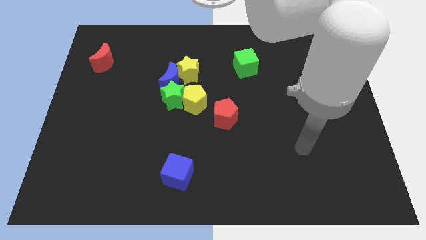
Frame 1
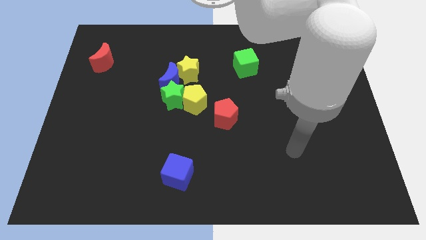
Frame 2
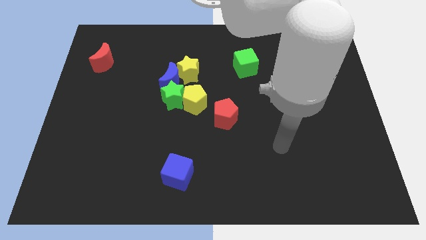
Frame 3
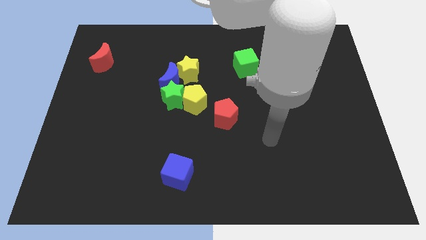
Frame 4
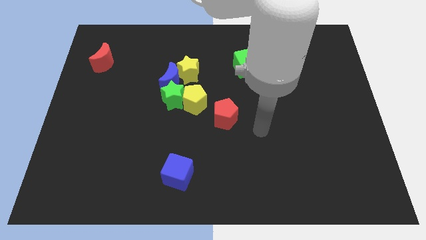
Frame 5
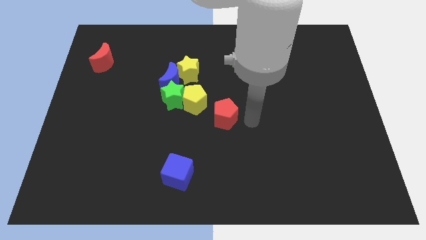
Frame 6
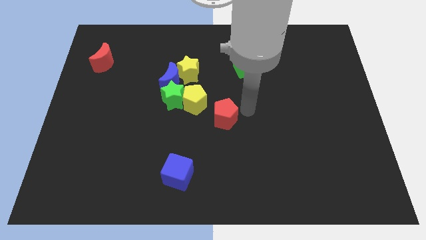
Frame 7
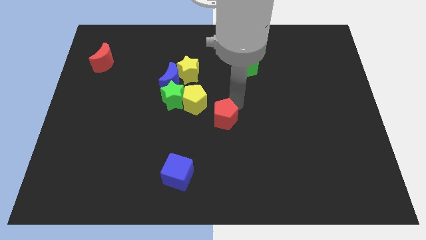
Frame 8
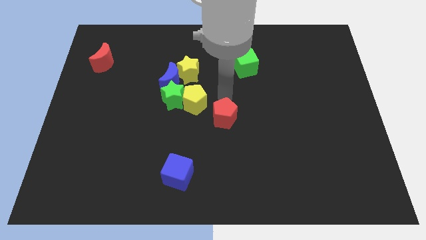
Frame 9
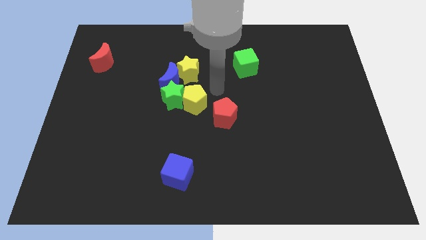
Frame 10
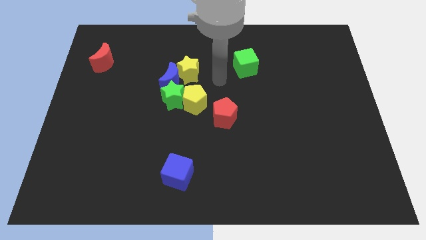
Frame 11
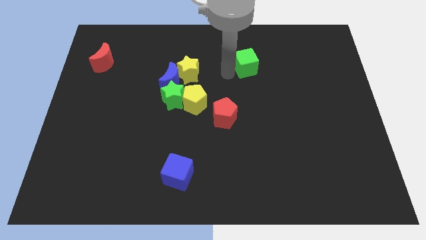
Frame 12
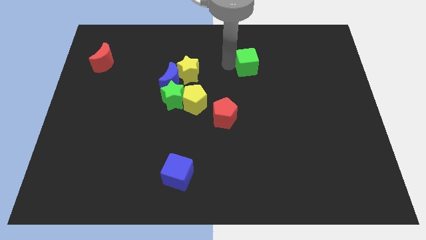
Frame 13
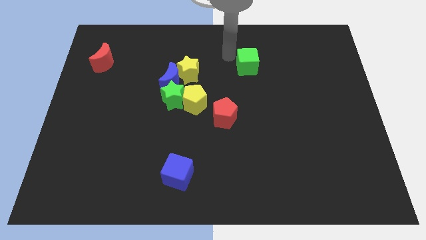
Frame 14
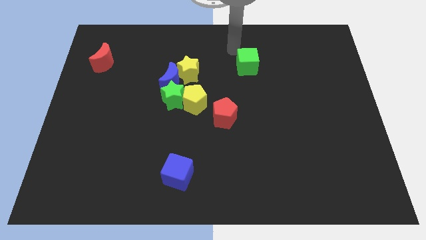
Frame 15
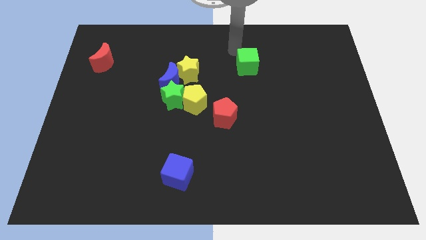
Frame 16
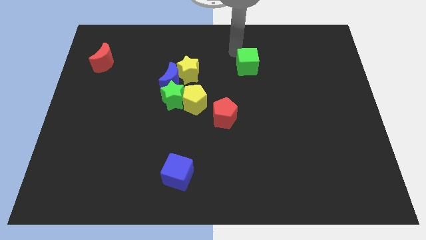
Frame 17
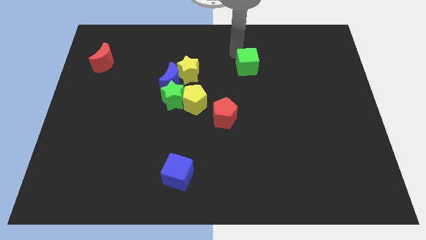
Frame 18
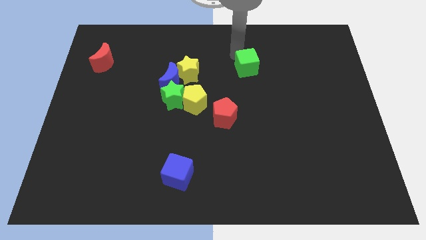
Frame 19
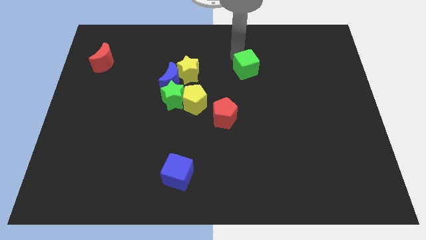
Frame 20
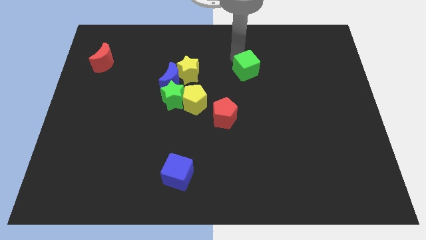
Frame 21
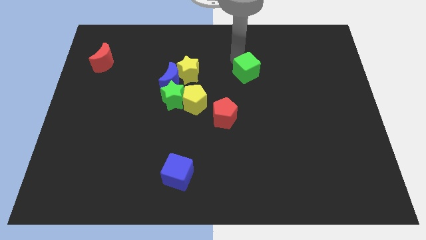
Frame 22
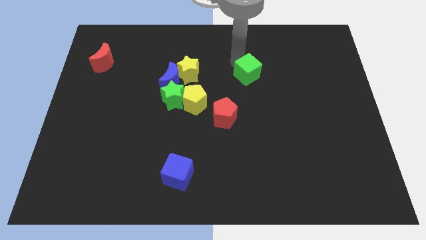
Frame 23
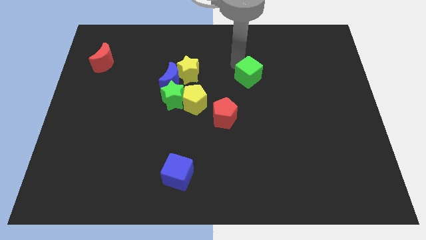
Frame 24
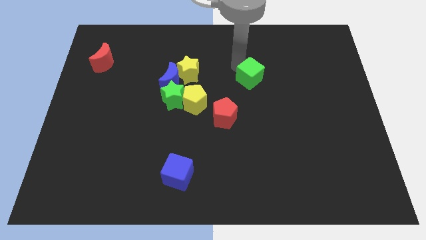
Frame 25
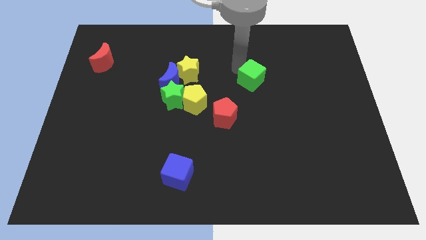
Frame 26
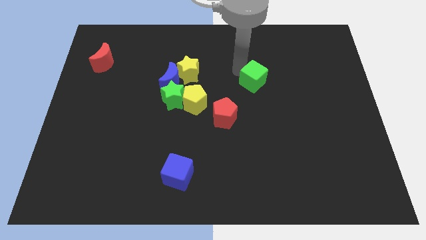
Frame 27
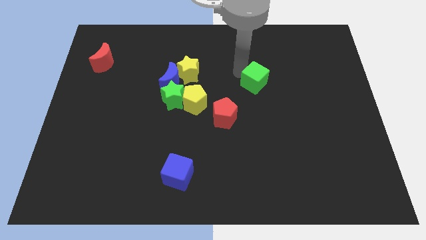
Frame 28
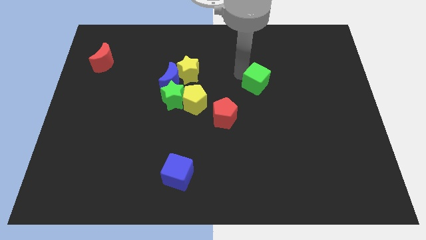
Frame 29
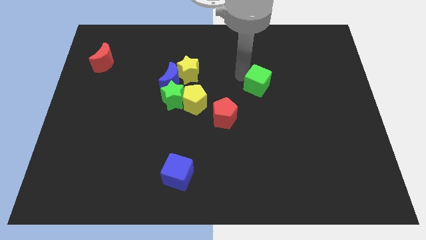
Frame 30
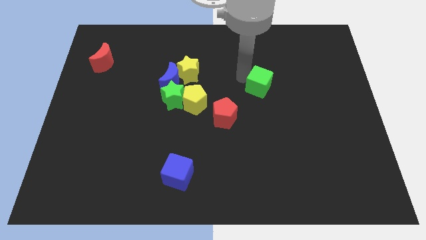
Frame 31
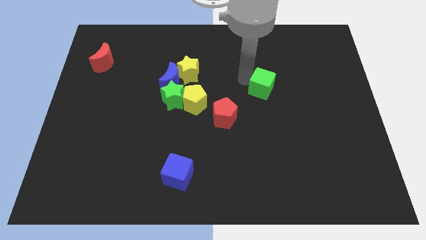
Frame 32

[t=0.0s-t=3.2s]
slide the green cube downwards and to the right diagonally slightly

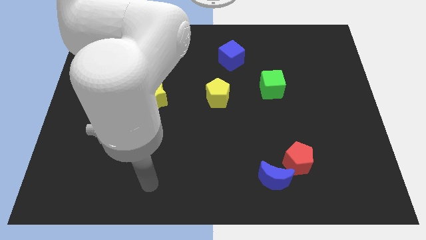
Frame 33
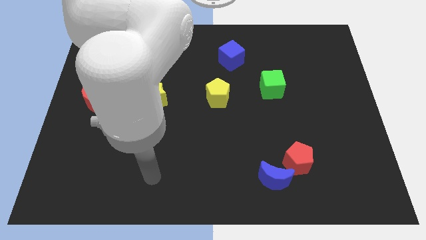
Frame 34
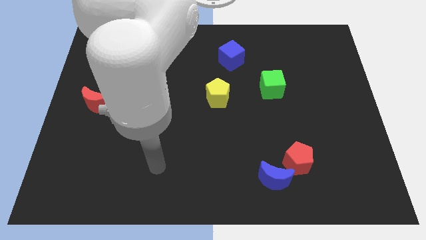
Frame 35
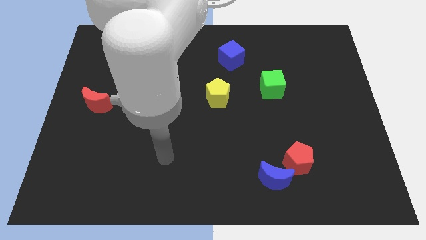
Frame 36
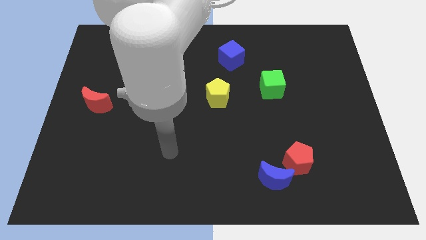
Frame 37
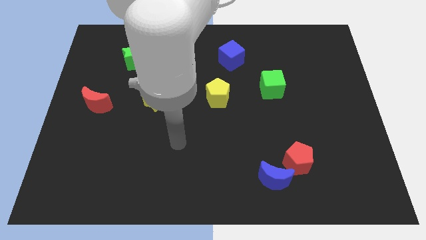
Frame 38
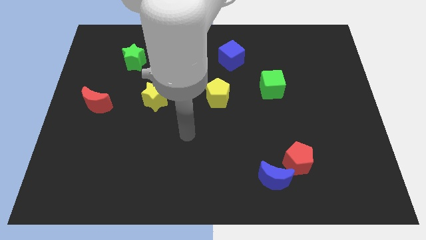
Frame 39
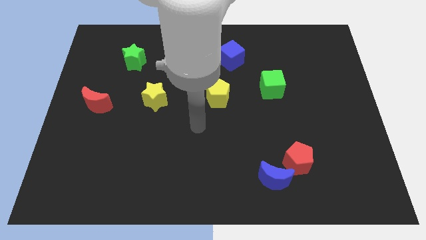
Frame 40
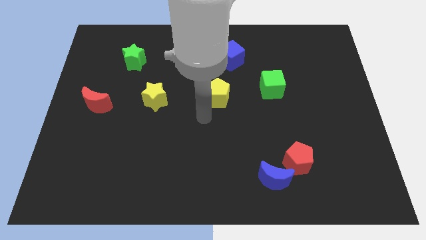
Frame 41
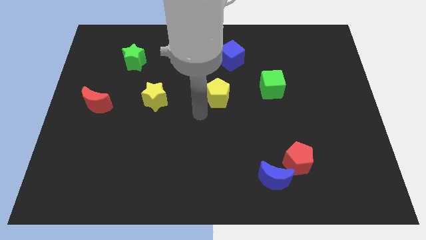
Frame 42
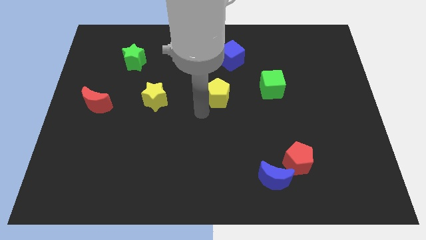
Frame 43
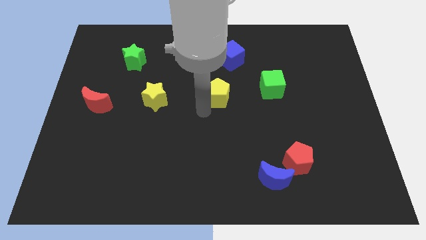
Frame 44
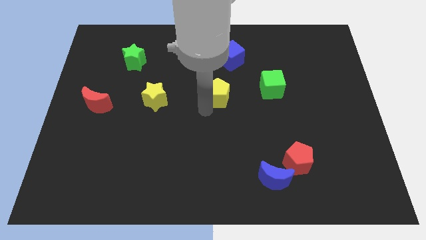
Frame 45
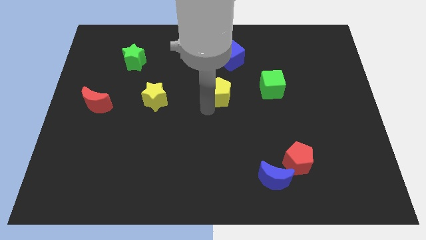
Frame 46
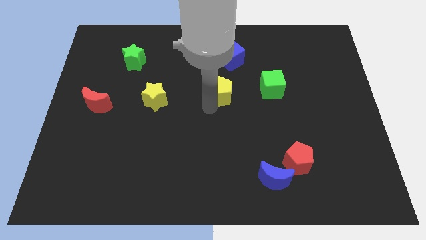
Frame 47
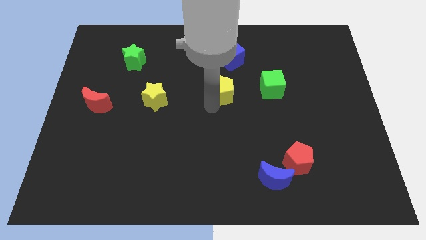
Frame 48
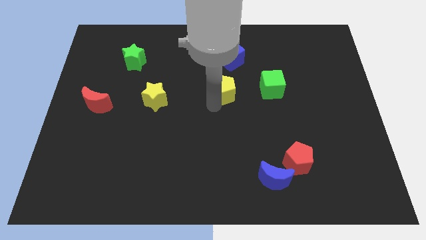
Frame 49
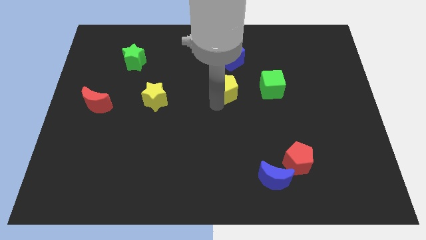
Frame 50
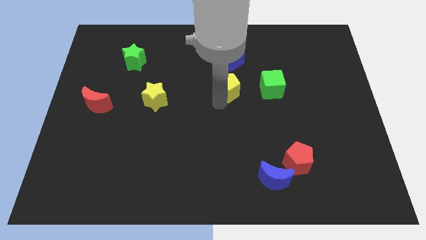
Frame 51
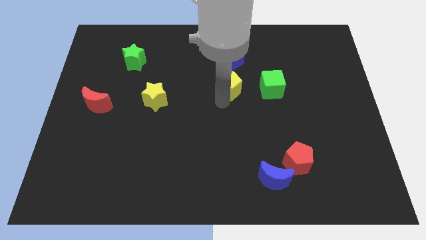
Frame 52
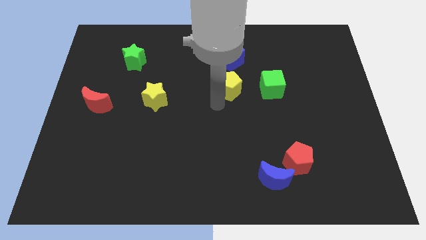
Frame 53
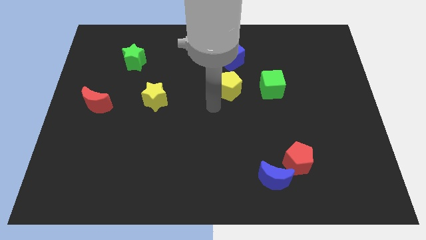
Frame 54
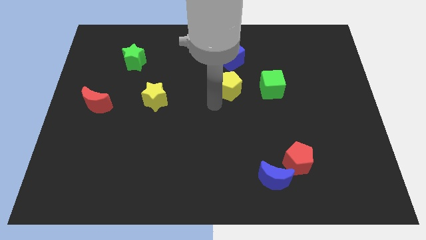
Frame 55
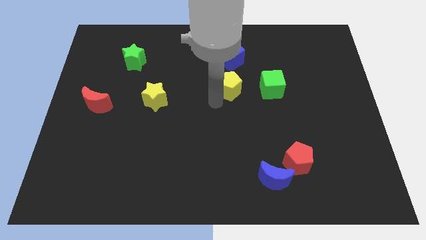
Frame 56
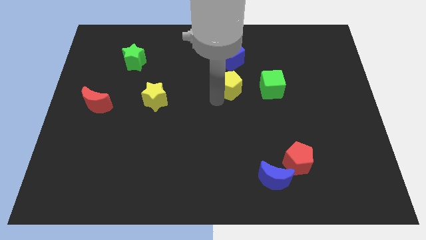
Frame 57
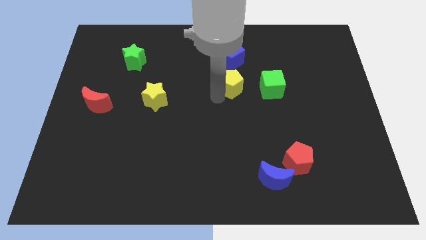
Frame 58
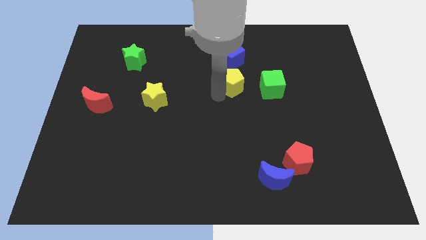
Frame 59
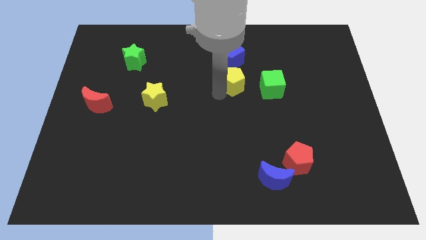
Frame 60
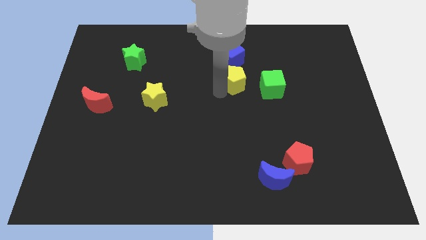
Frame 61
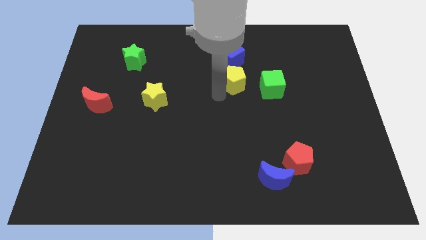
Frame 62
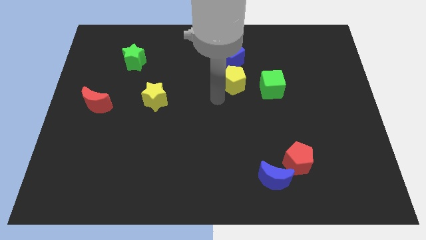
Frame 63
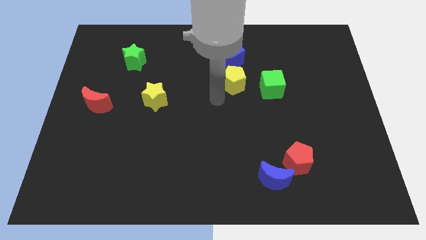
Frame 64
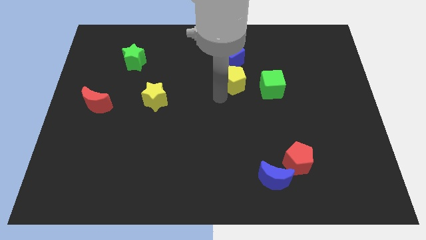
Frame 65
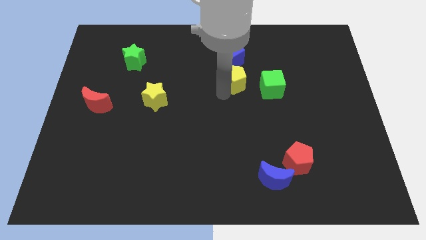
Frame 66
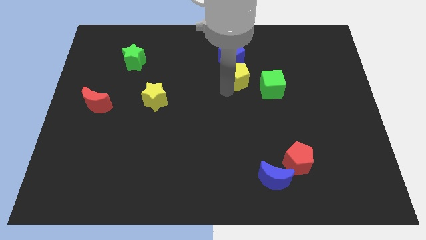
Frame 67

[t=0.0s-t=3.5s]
slide the yellow pentagon upwards and to the right diagonally a little bit

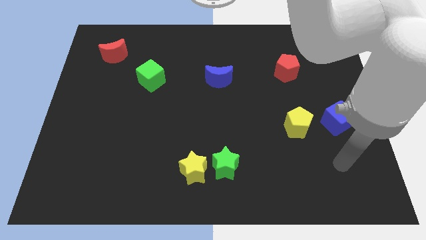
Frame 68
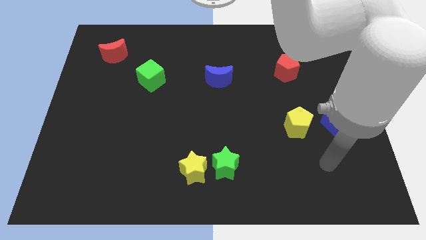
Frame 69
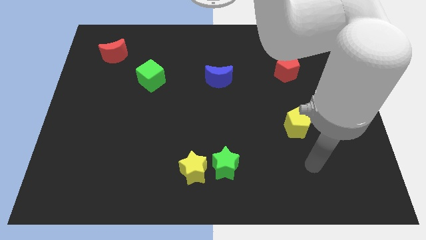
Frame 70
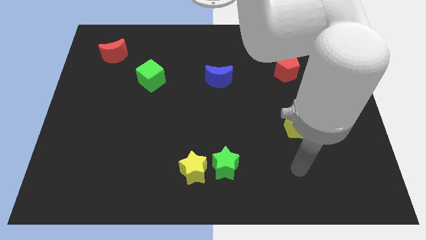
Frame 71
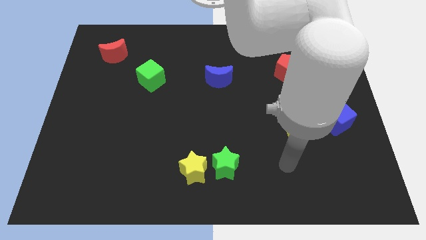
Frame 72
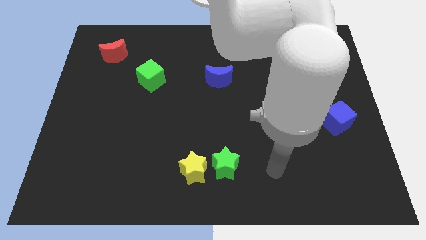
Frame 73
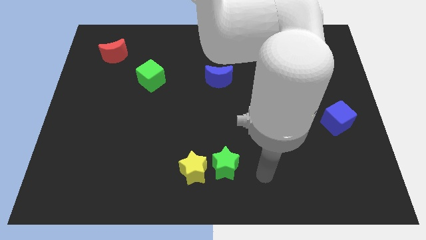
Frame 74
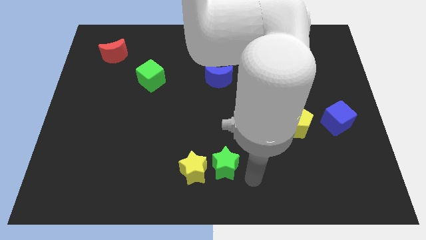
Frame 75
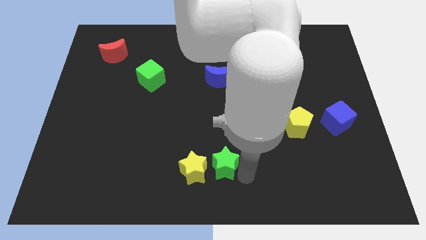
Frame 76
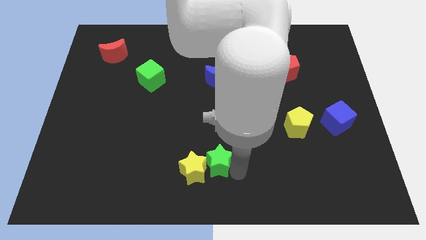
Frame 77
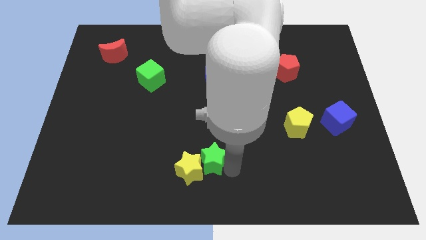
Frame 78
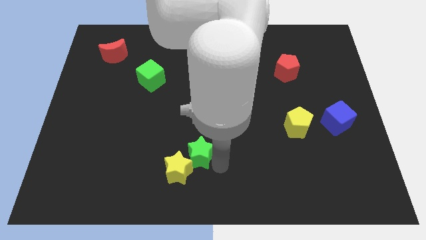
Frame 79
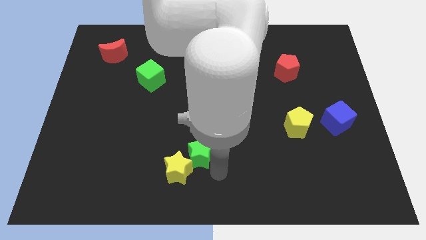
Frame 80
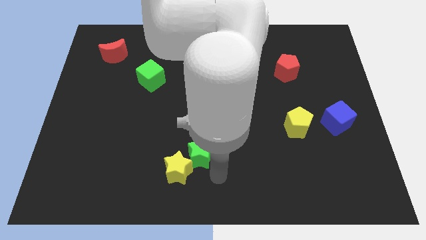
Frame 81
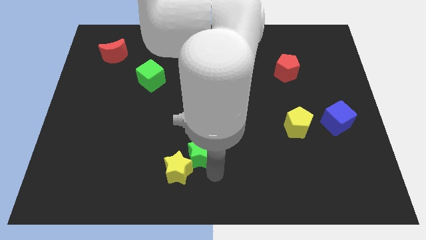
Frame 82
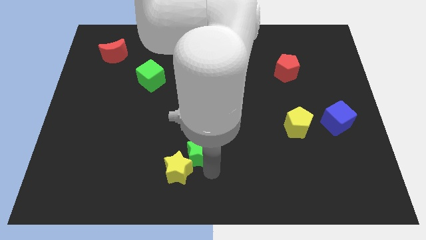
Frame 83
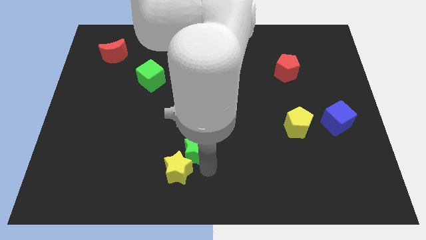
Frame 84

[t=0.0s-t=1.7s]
push the green star up and then left slightly
